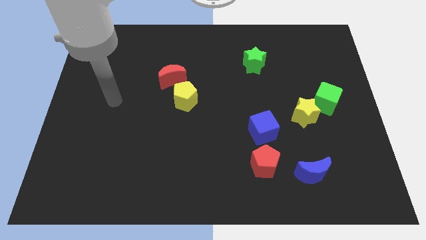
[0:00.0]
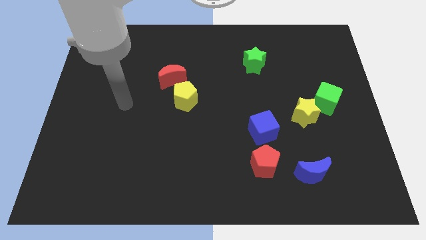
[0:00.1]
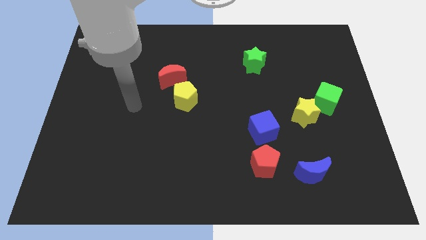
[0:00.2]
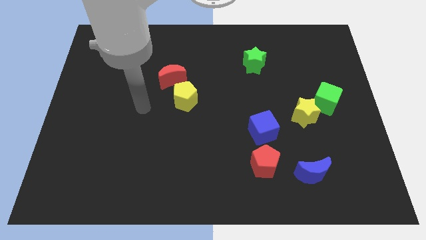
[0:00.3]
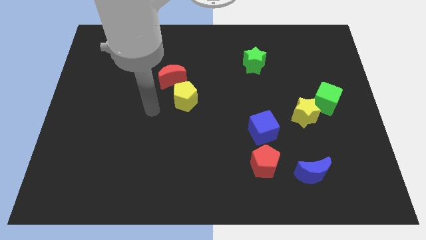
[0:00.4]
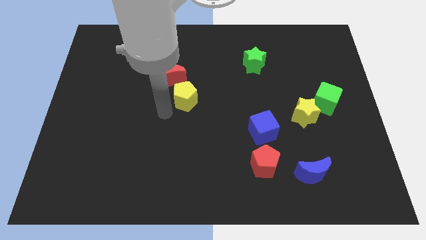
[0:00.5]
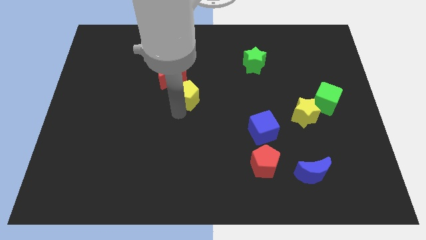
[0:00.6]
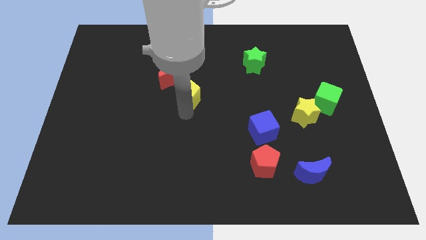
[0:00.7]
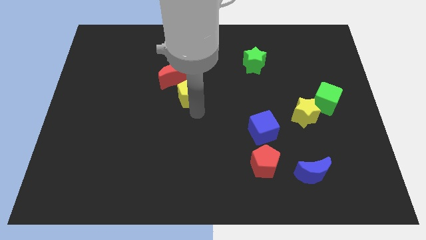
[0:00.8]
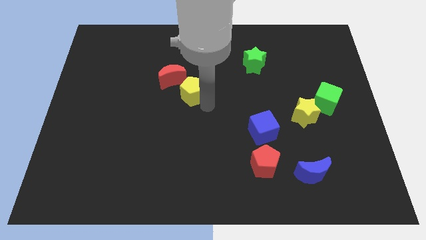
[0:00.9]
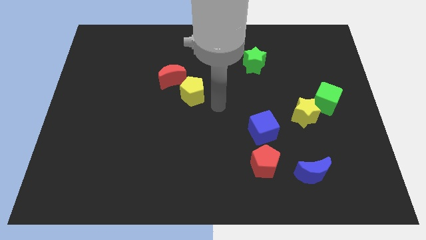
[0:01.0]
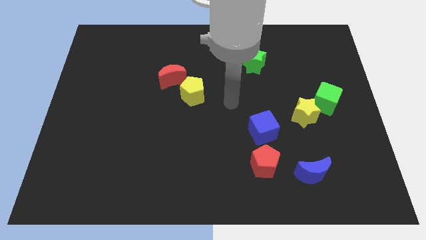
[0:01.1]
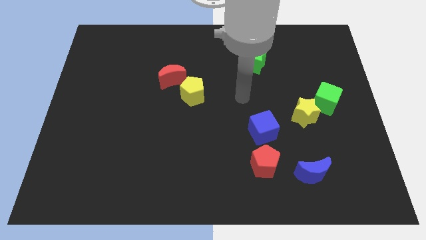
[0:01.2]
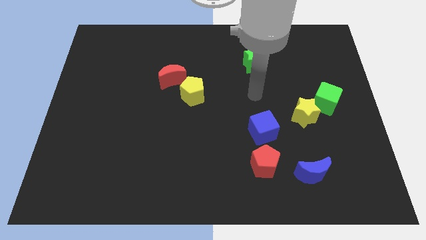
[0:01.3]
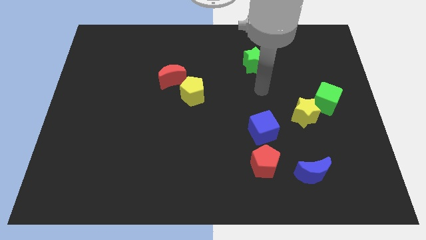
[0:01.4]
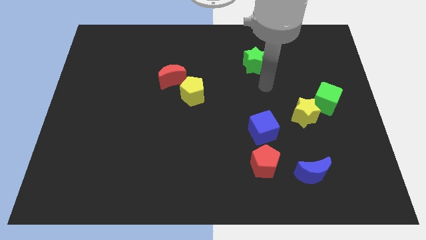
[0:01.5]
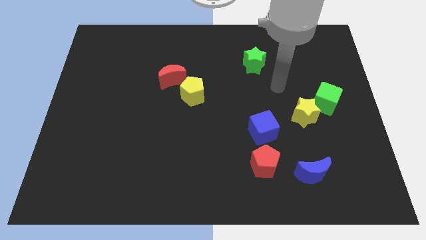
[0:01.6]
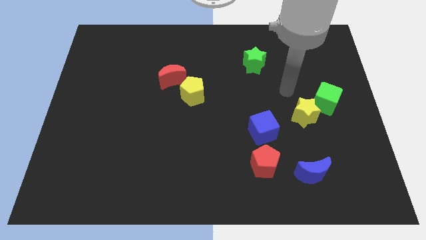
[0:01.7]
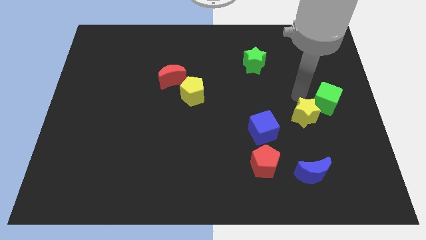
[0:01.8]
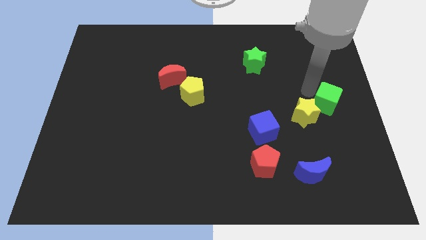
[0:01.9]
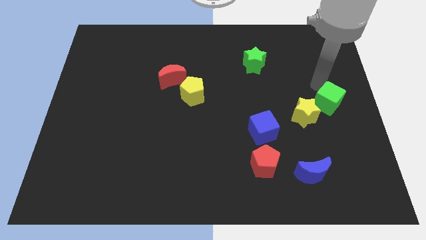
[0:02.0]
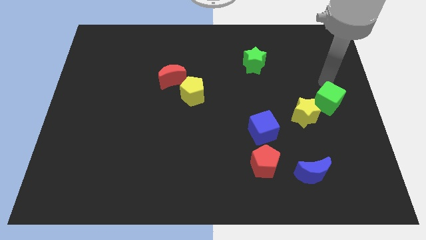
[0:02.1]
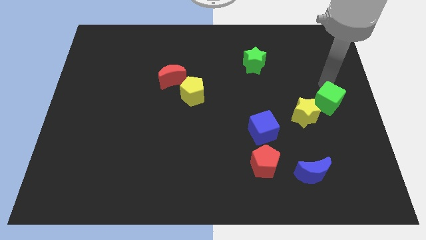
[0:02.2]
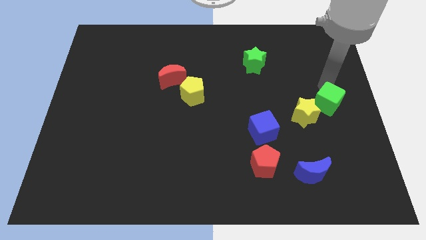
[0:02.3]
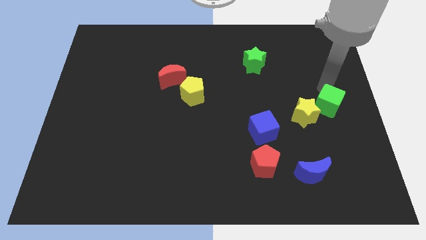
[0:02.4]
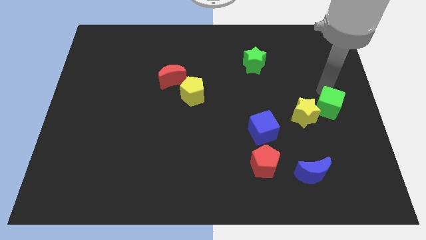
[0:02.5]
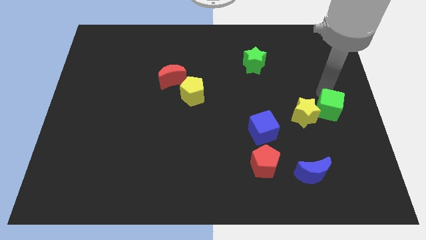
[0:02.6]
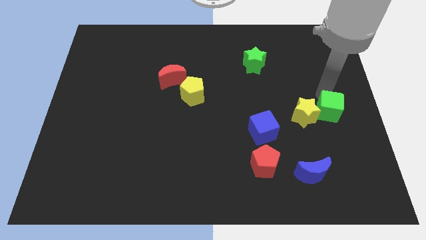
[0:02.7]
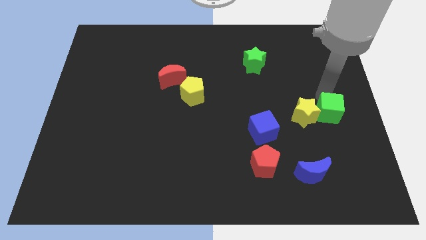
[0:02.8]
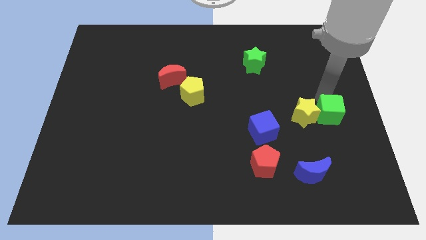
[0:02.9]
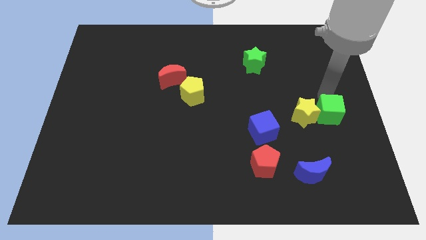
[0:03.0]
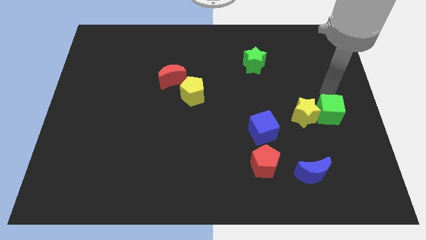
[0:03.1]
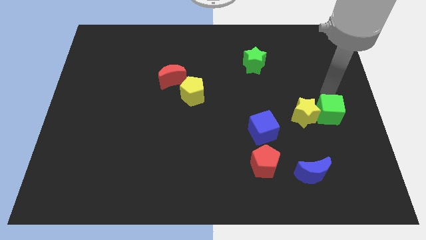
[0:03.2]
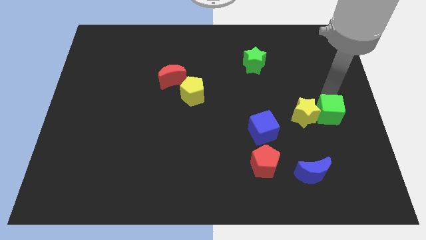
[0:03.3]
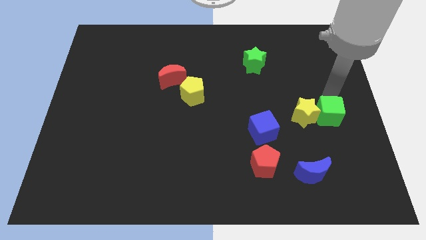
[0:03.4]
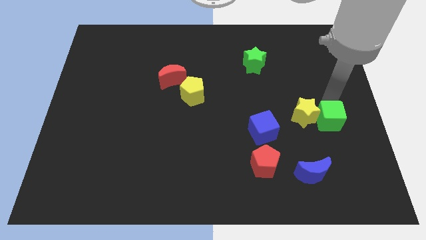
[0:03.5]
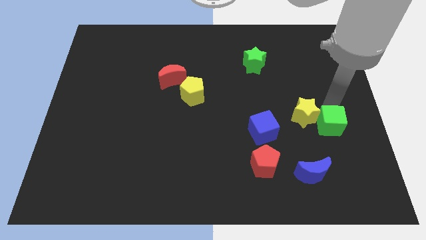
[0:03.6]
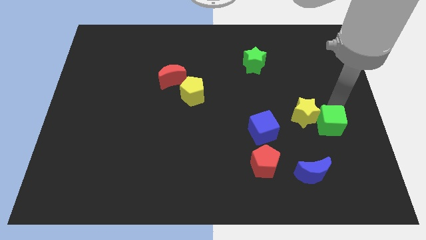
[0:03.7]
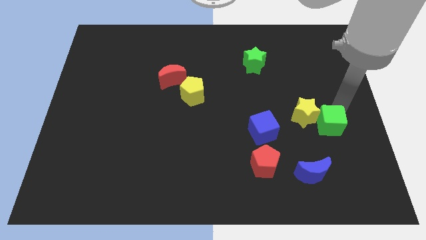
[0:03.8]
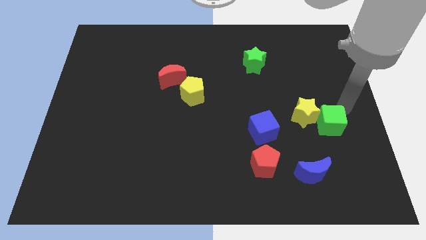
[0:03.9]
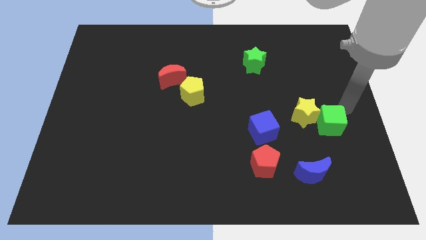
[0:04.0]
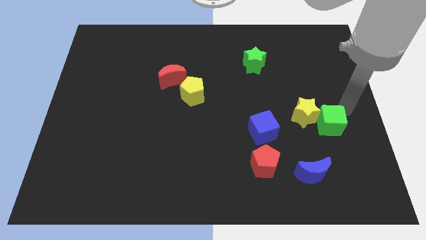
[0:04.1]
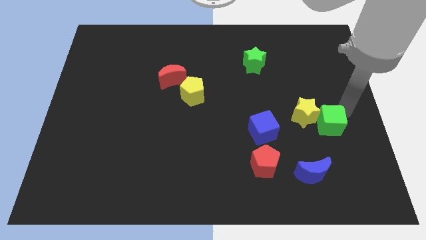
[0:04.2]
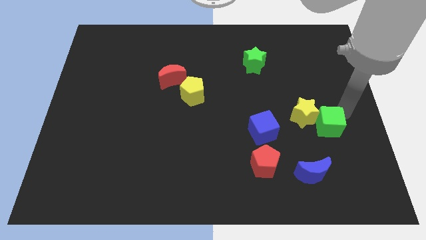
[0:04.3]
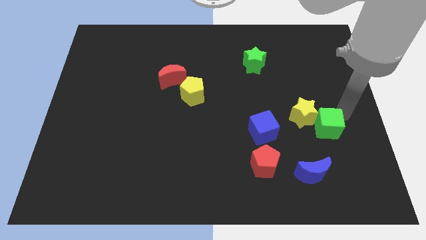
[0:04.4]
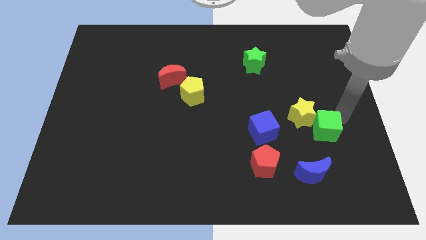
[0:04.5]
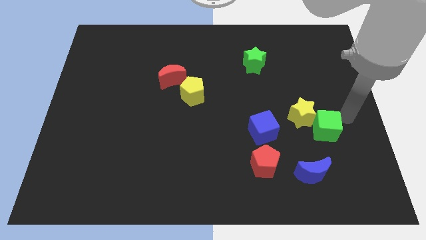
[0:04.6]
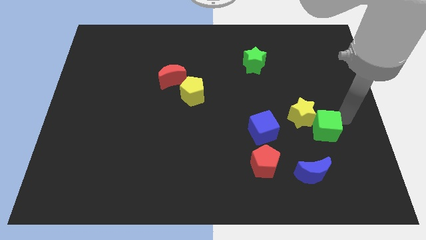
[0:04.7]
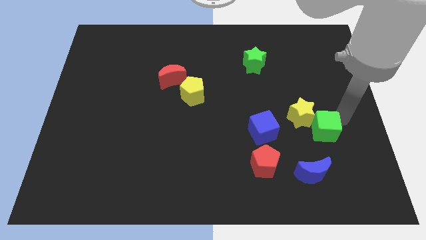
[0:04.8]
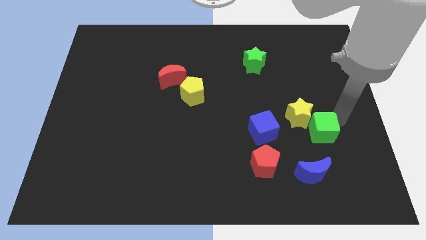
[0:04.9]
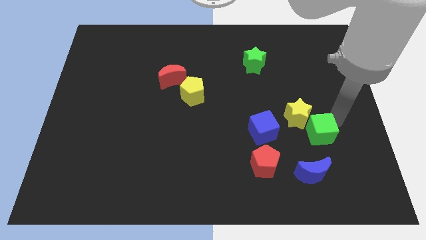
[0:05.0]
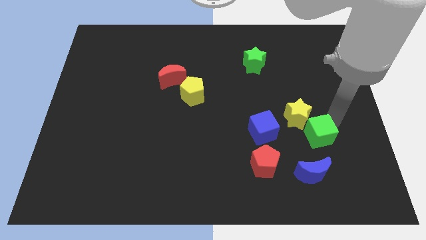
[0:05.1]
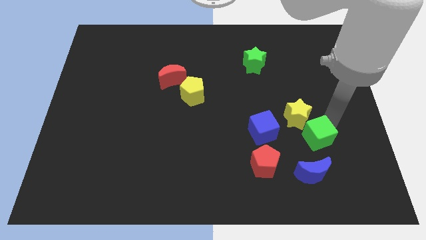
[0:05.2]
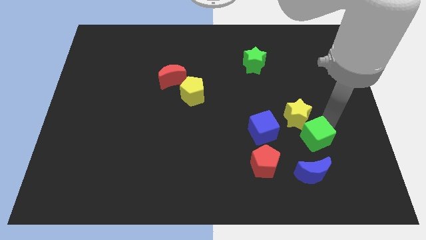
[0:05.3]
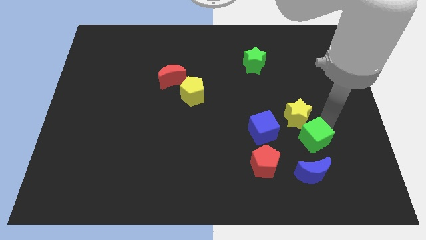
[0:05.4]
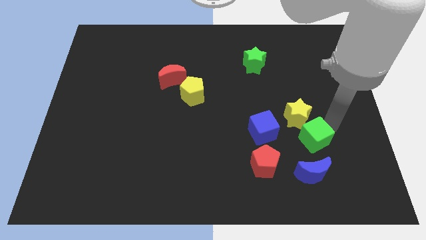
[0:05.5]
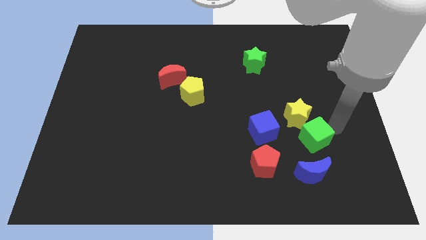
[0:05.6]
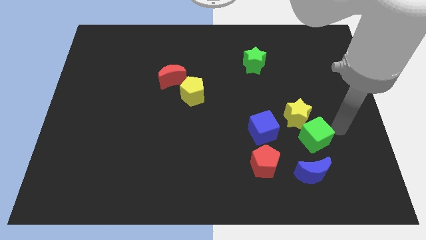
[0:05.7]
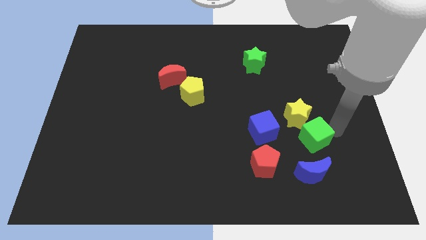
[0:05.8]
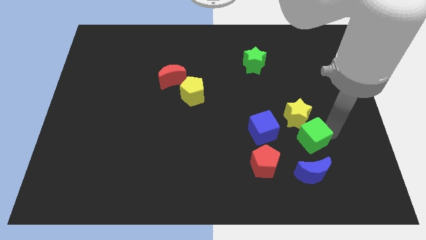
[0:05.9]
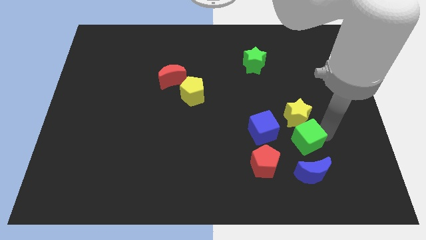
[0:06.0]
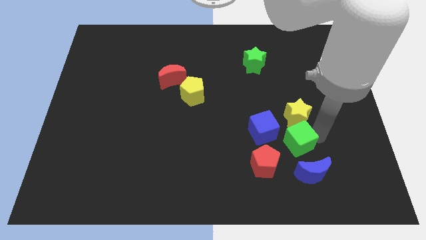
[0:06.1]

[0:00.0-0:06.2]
put the green cube diagonally up and to the left of the blue moon

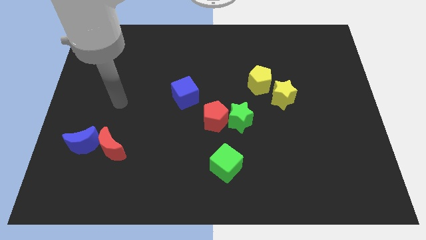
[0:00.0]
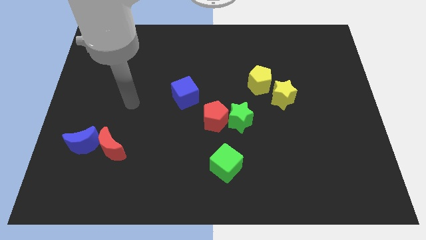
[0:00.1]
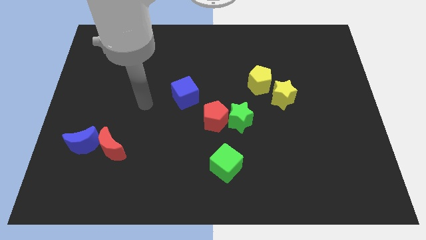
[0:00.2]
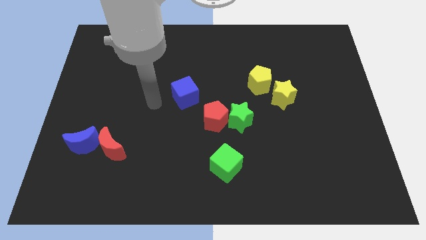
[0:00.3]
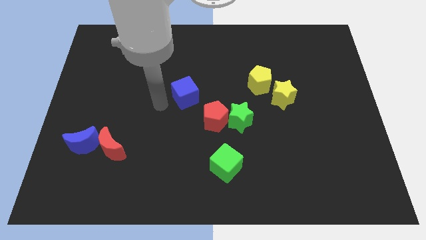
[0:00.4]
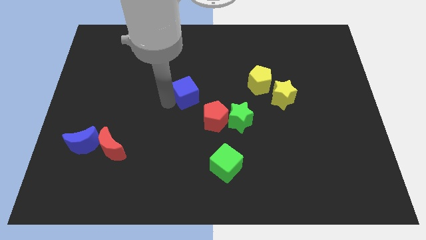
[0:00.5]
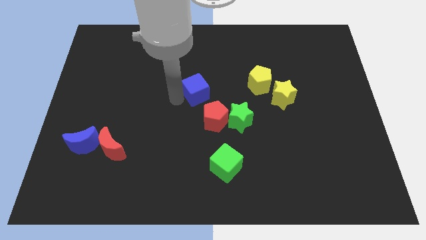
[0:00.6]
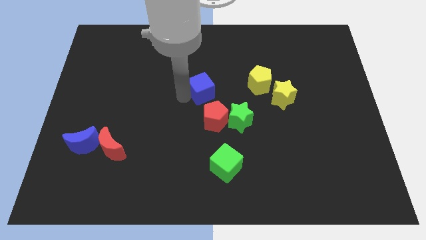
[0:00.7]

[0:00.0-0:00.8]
push the blue cube to the left of the yellow pentagon

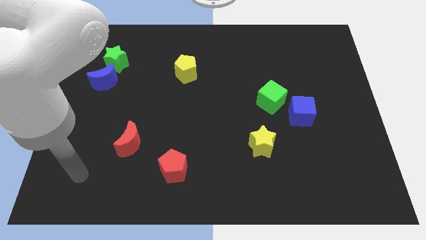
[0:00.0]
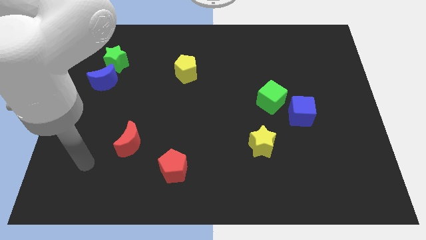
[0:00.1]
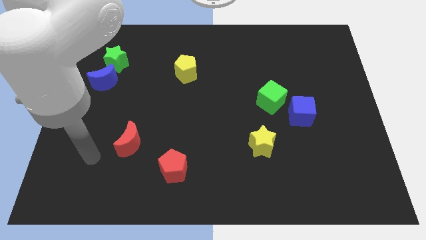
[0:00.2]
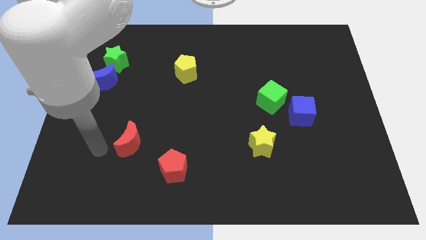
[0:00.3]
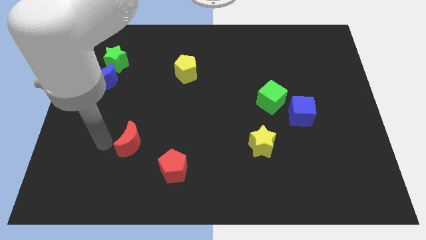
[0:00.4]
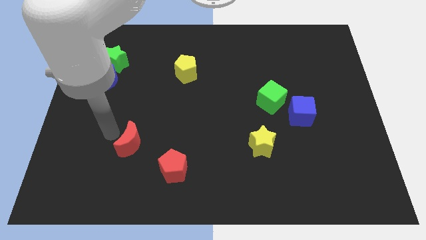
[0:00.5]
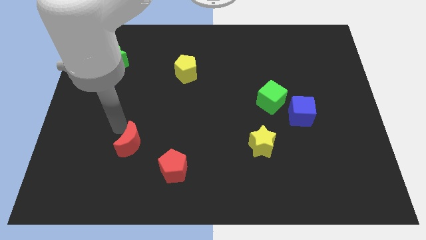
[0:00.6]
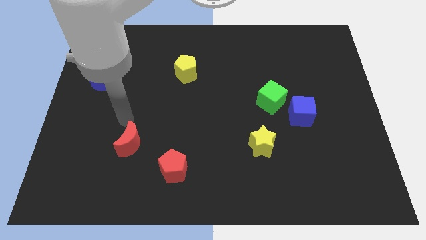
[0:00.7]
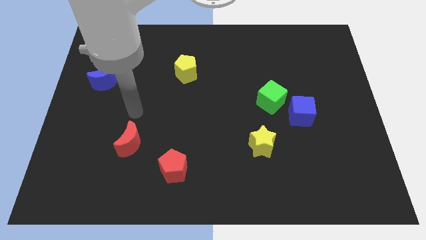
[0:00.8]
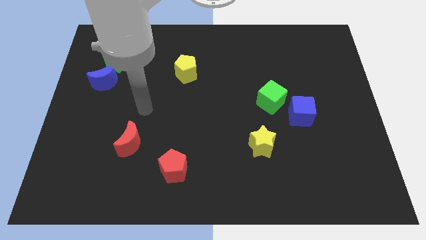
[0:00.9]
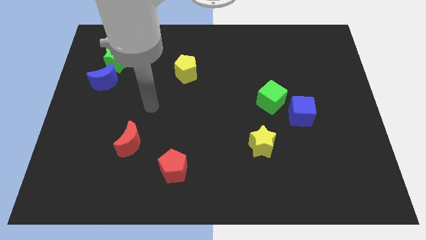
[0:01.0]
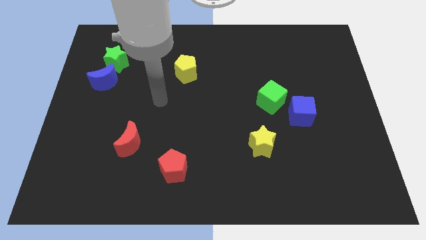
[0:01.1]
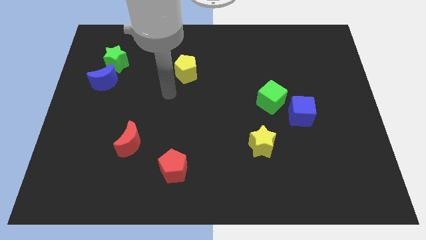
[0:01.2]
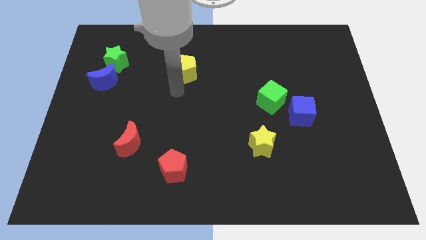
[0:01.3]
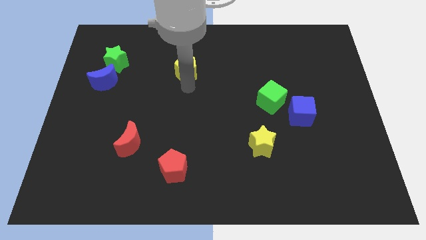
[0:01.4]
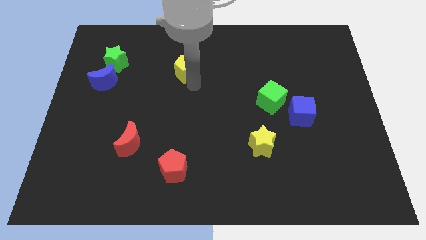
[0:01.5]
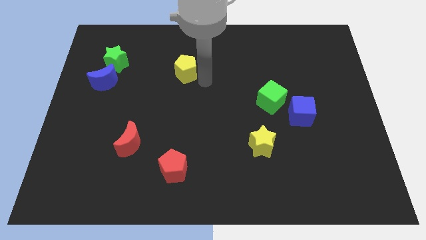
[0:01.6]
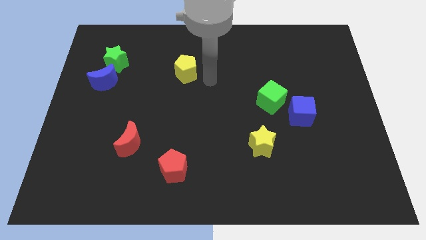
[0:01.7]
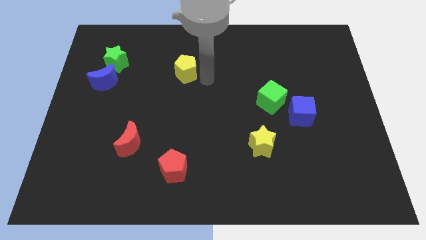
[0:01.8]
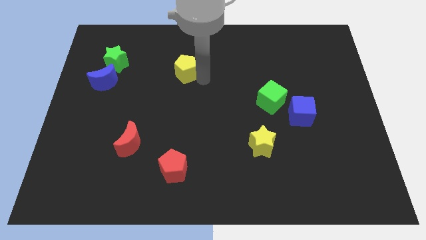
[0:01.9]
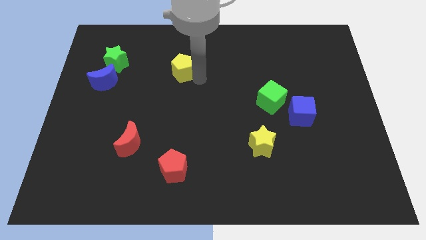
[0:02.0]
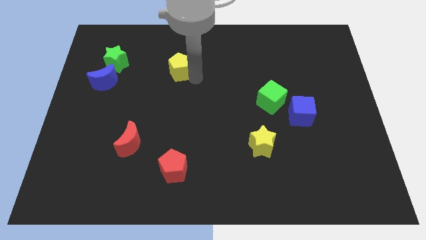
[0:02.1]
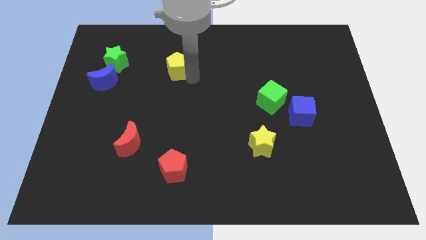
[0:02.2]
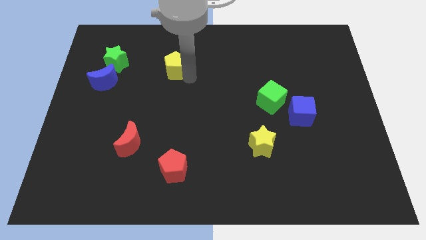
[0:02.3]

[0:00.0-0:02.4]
move the yellow pentagon to the right of the green star
